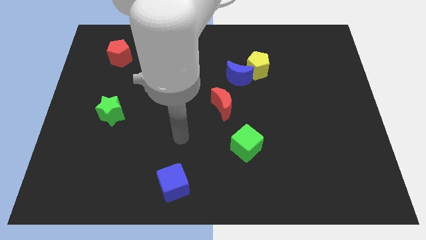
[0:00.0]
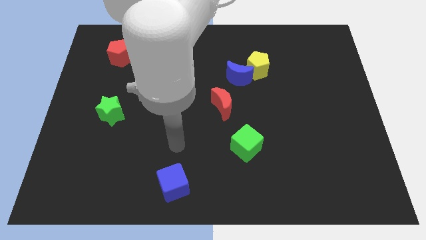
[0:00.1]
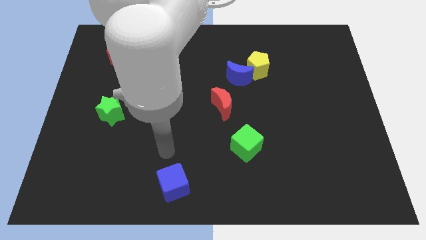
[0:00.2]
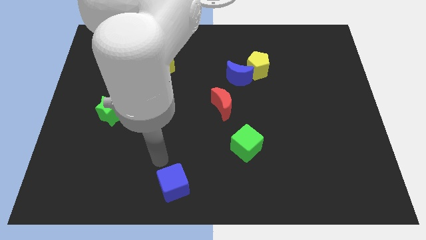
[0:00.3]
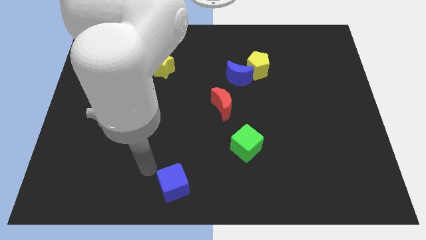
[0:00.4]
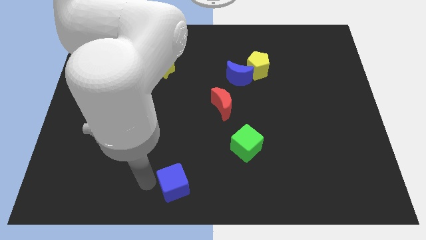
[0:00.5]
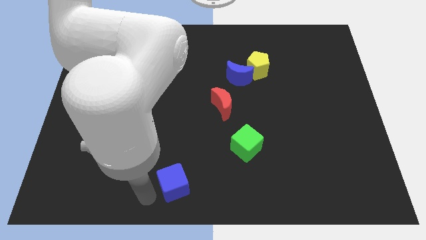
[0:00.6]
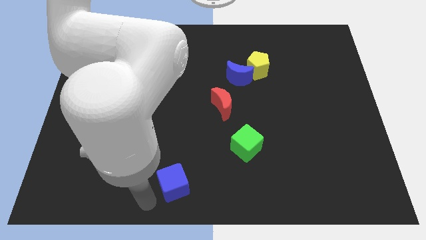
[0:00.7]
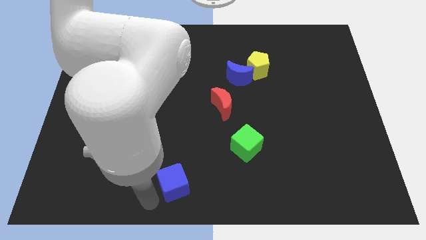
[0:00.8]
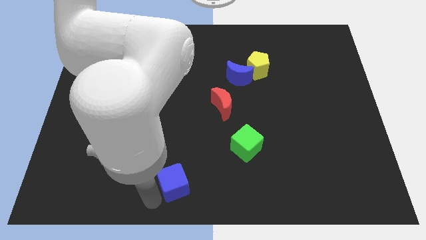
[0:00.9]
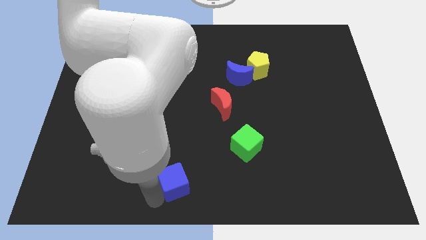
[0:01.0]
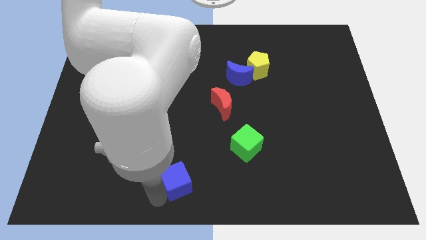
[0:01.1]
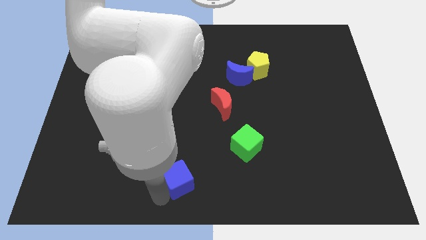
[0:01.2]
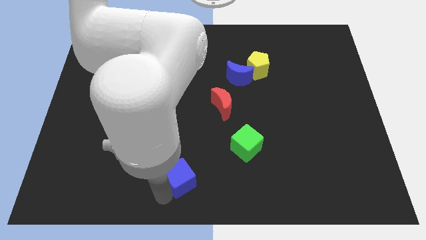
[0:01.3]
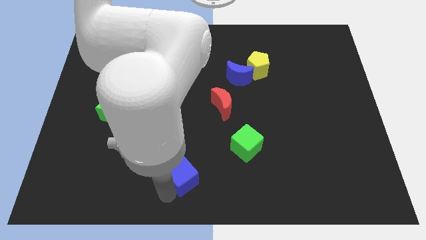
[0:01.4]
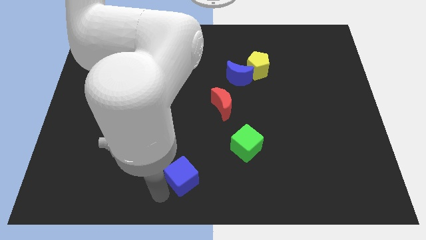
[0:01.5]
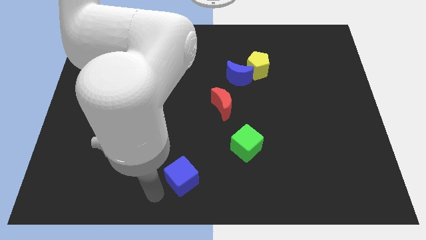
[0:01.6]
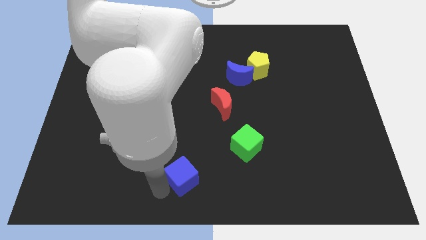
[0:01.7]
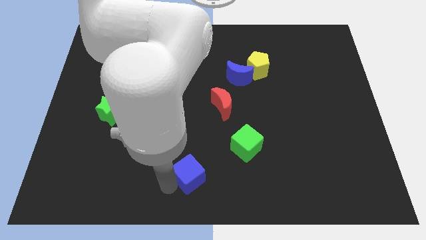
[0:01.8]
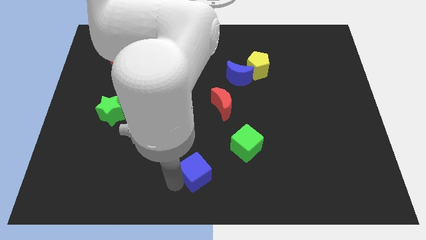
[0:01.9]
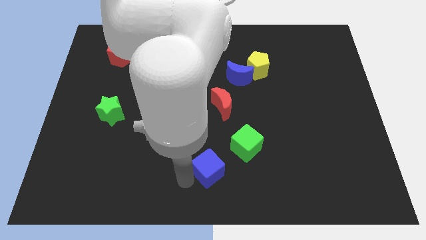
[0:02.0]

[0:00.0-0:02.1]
move the blue cube slightly diagonally up and to the right

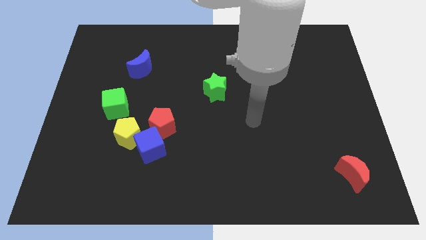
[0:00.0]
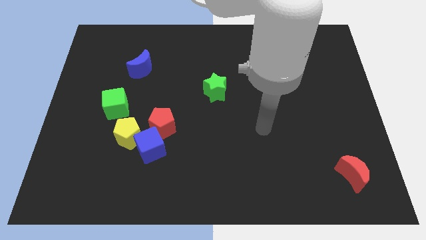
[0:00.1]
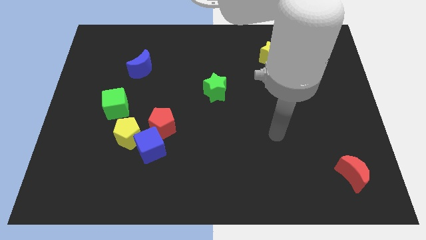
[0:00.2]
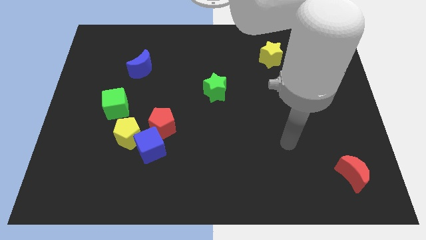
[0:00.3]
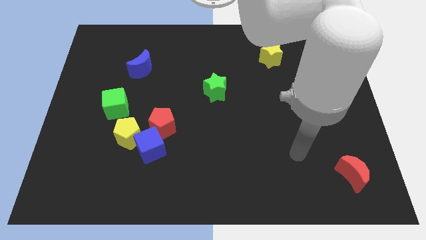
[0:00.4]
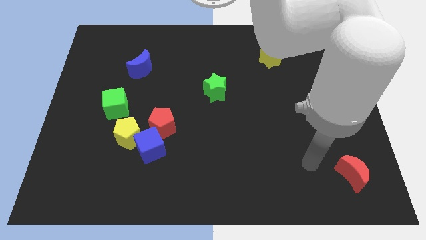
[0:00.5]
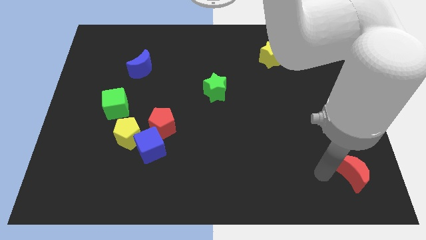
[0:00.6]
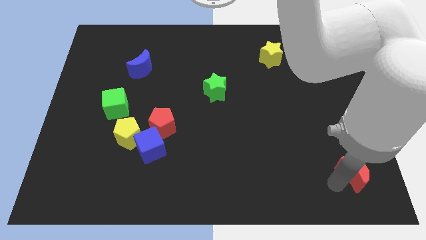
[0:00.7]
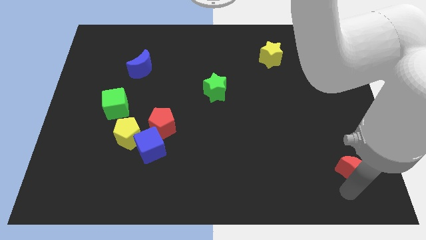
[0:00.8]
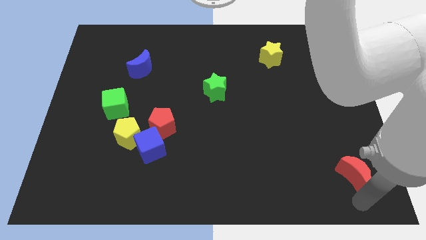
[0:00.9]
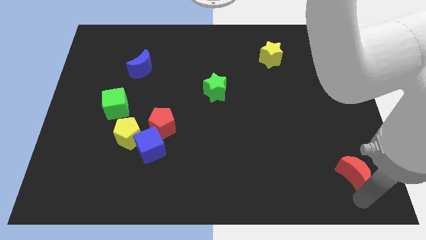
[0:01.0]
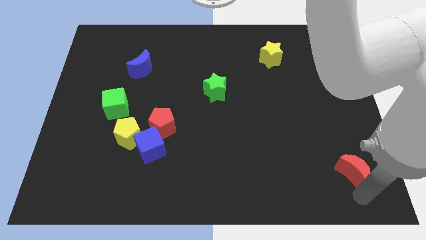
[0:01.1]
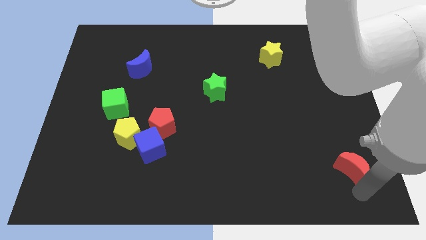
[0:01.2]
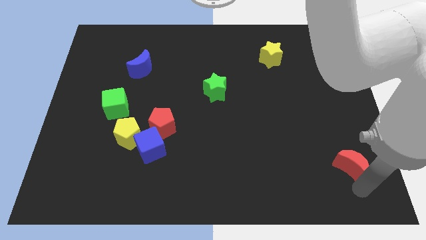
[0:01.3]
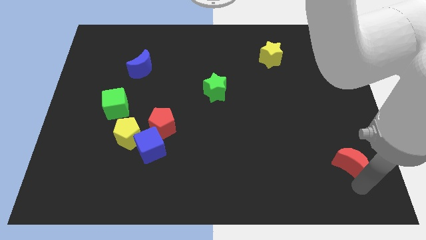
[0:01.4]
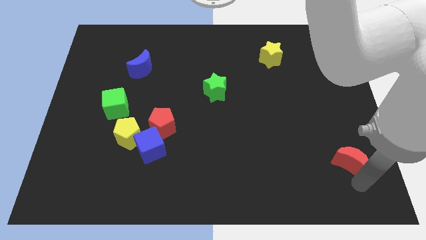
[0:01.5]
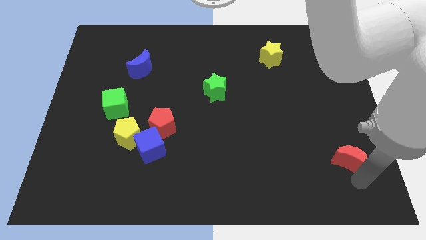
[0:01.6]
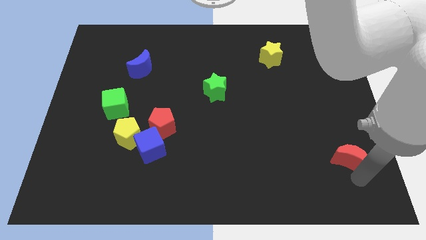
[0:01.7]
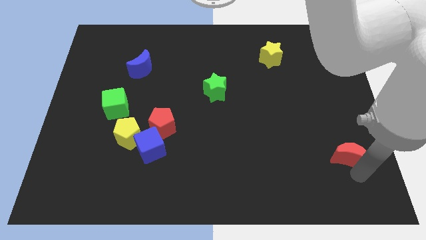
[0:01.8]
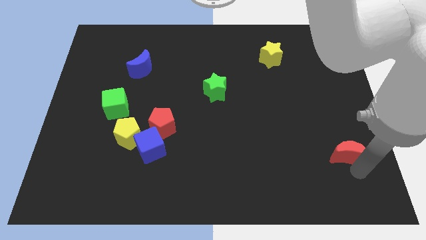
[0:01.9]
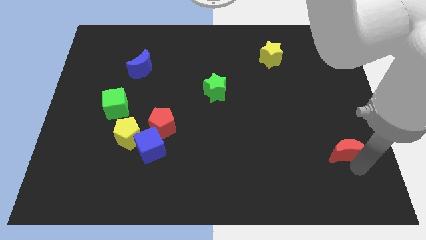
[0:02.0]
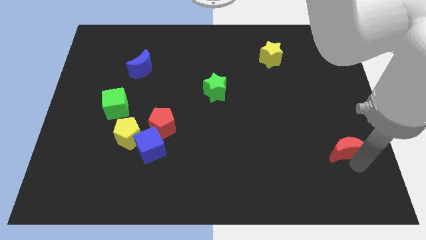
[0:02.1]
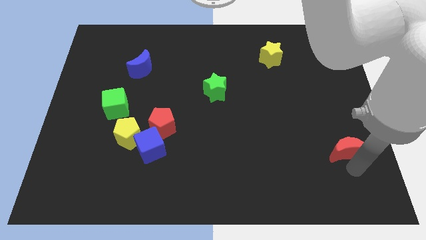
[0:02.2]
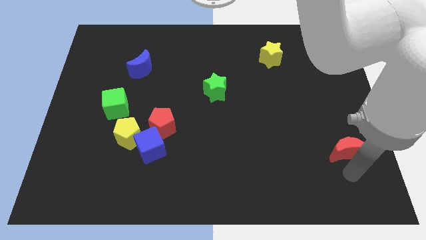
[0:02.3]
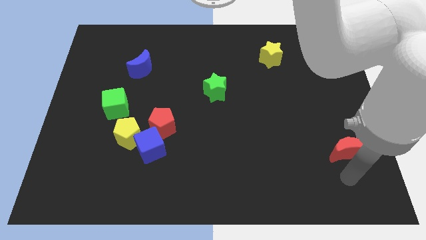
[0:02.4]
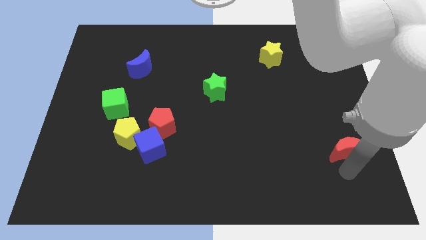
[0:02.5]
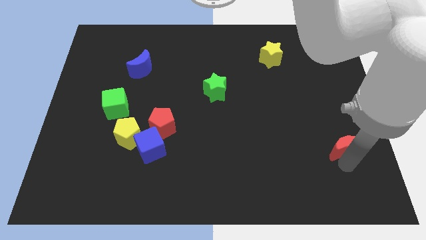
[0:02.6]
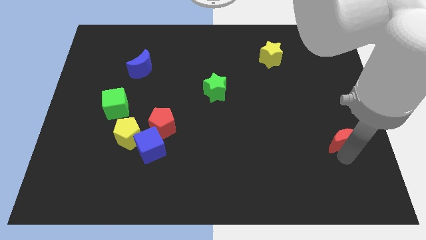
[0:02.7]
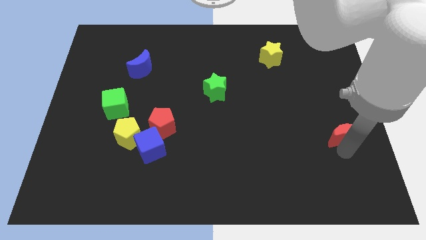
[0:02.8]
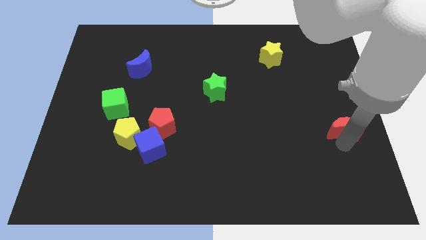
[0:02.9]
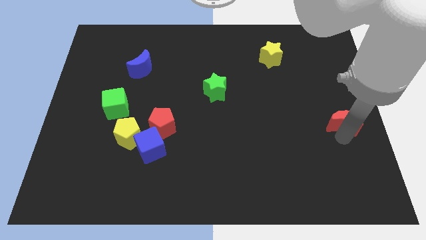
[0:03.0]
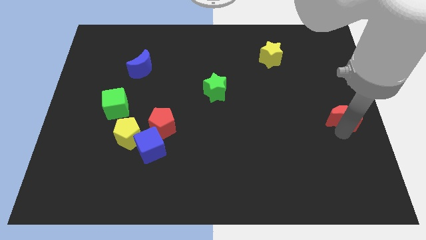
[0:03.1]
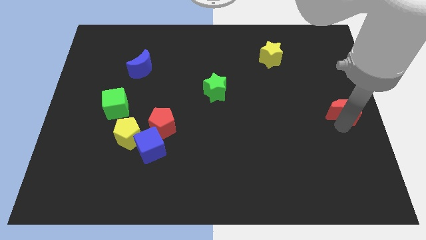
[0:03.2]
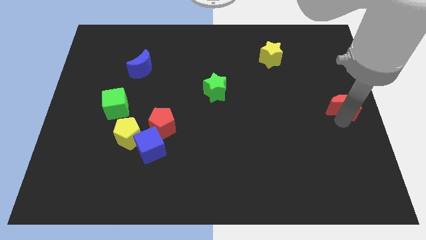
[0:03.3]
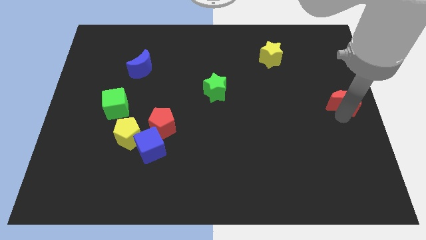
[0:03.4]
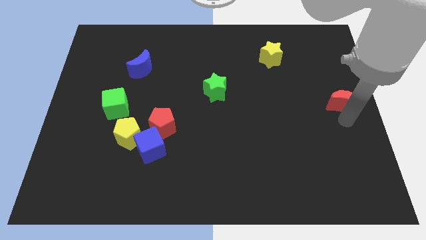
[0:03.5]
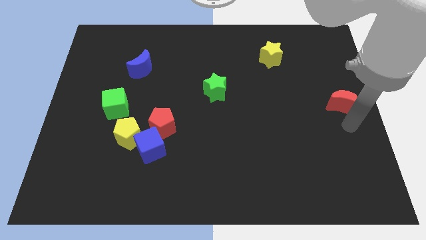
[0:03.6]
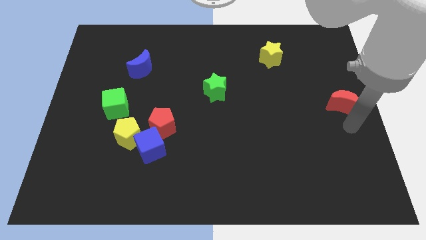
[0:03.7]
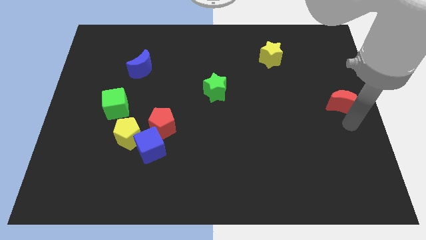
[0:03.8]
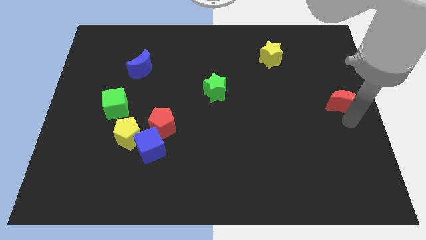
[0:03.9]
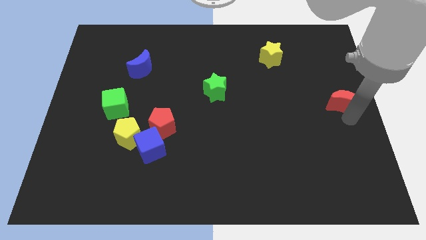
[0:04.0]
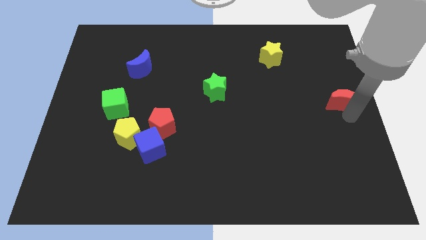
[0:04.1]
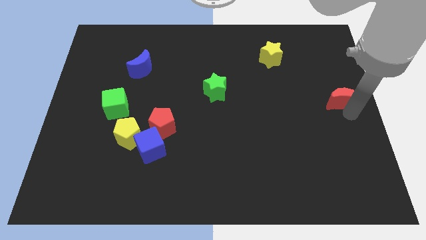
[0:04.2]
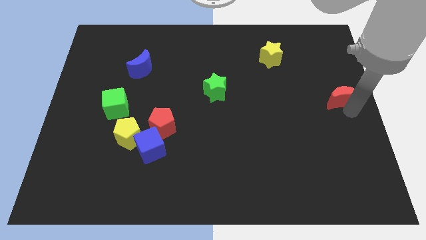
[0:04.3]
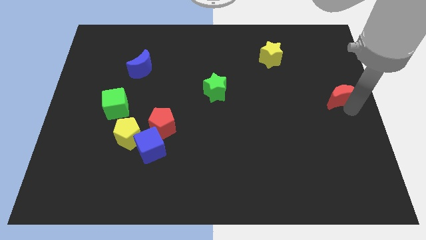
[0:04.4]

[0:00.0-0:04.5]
move the red moon up

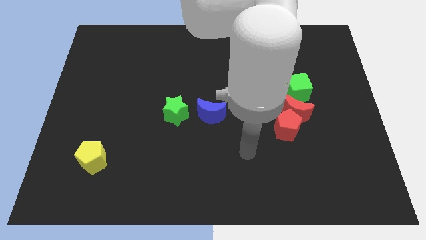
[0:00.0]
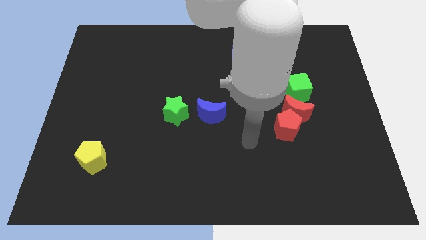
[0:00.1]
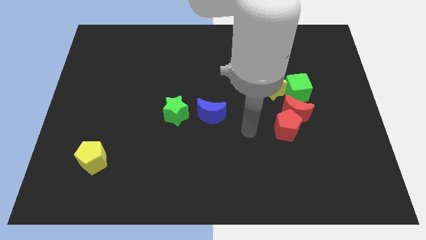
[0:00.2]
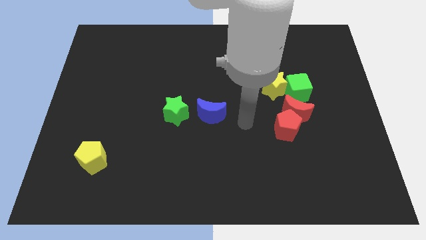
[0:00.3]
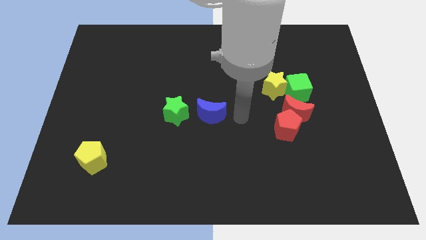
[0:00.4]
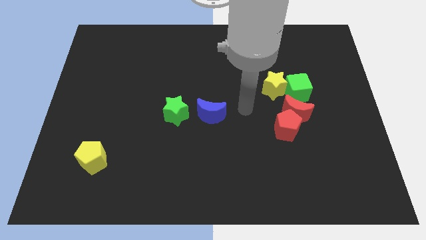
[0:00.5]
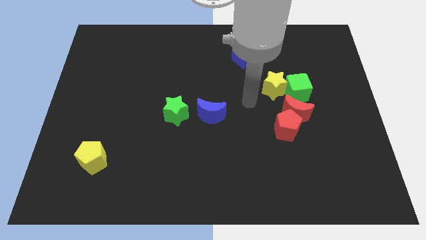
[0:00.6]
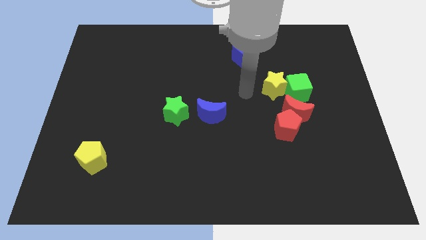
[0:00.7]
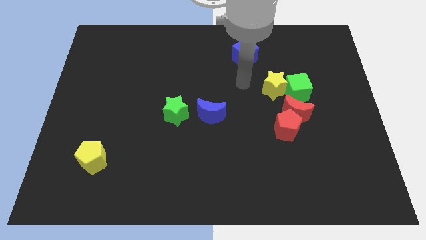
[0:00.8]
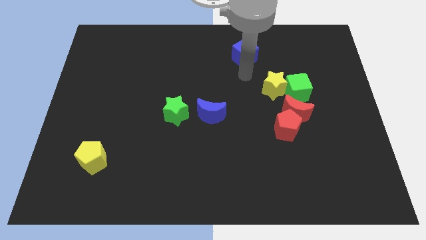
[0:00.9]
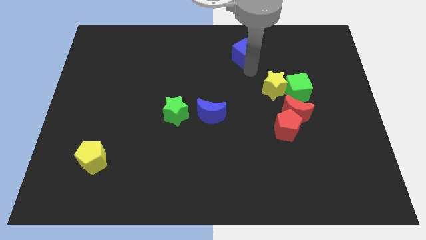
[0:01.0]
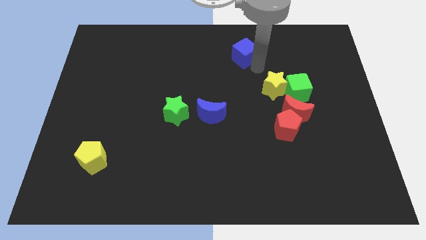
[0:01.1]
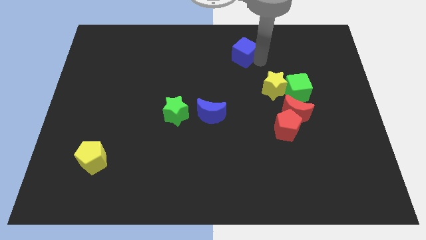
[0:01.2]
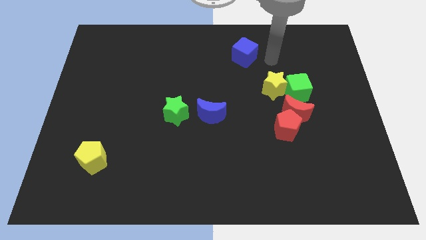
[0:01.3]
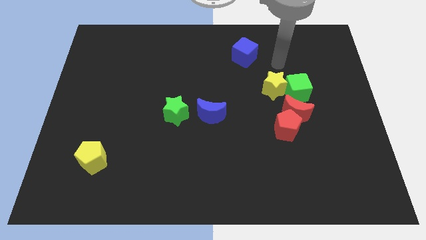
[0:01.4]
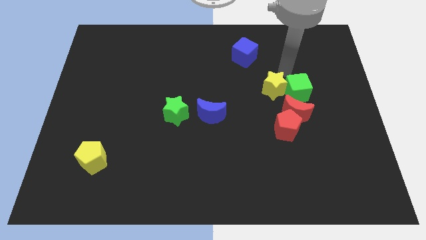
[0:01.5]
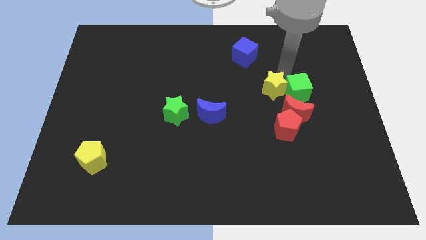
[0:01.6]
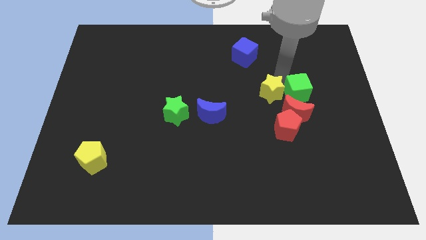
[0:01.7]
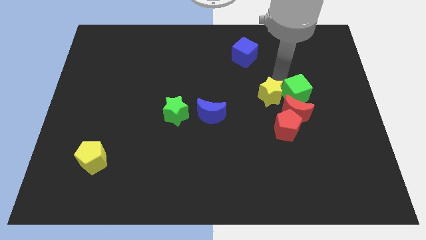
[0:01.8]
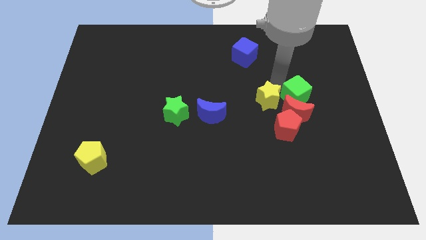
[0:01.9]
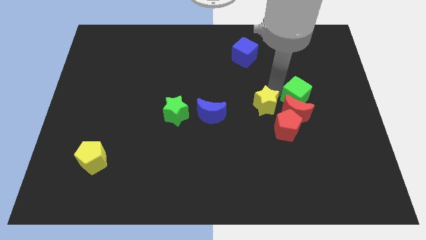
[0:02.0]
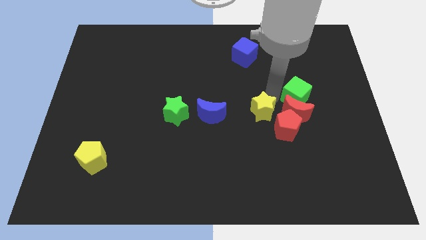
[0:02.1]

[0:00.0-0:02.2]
move the yellow star somewhat downwards and left diagonally
